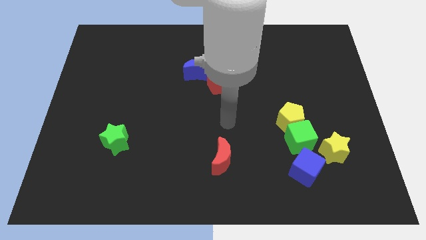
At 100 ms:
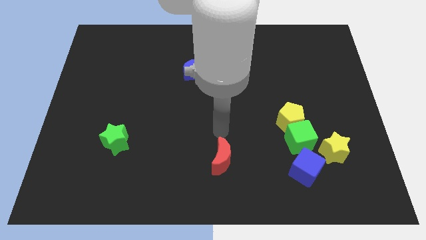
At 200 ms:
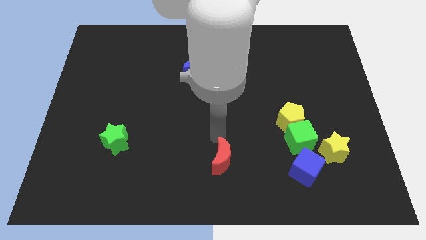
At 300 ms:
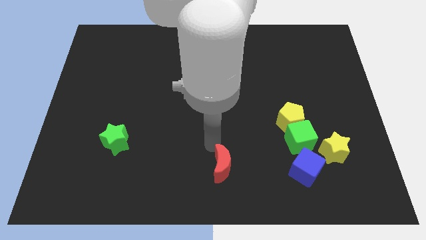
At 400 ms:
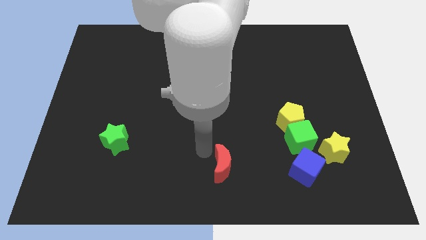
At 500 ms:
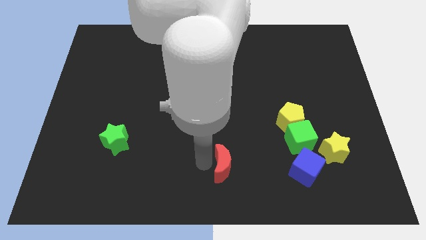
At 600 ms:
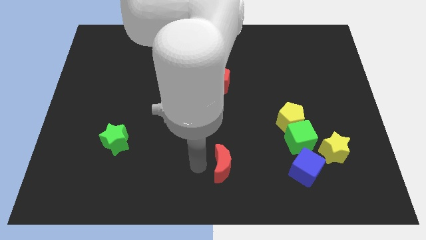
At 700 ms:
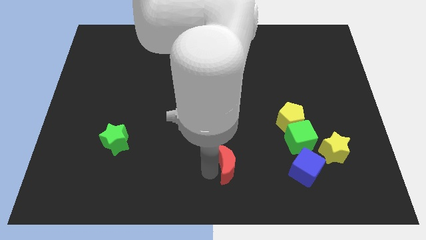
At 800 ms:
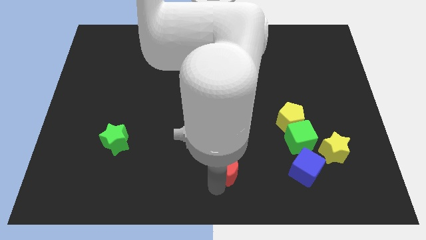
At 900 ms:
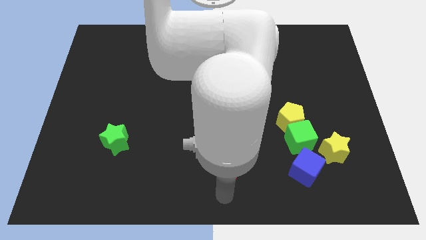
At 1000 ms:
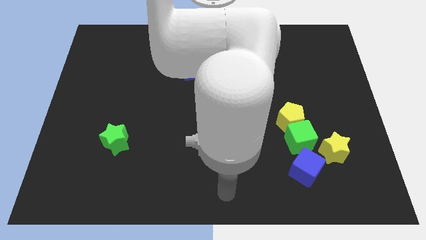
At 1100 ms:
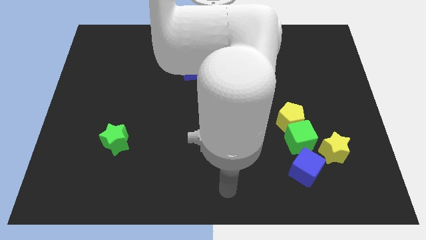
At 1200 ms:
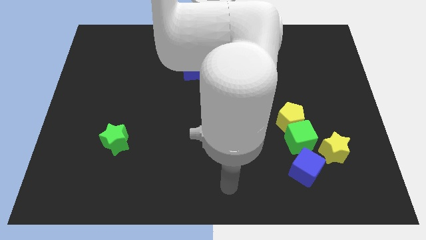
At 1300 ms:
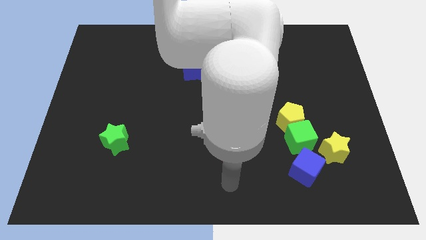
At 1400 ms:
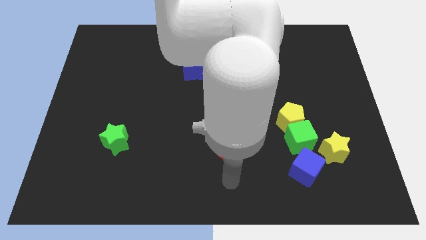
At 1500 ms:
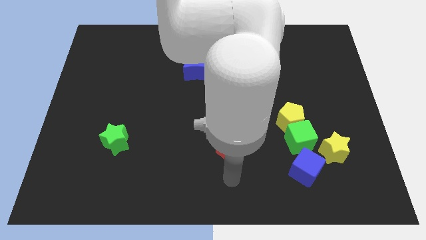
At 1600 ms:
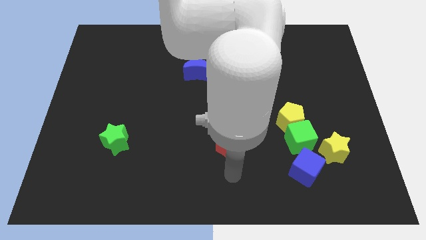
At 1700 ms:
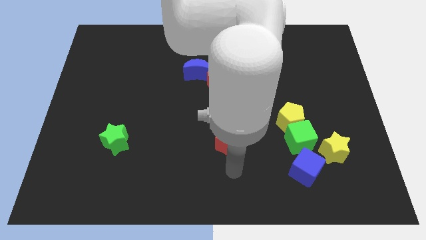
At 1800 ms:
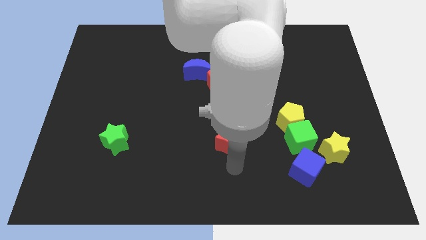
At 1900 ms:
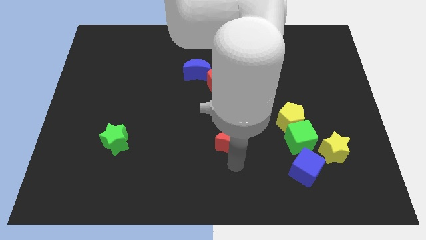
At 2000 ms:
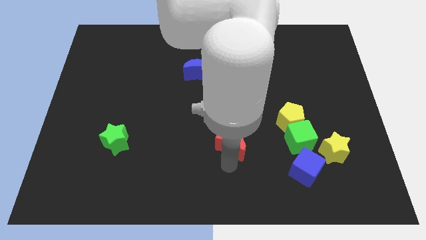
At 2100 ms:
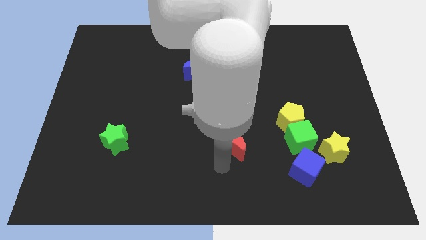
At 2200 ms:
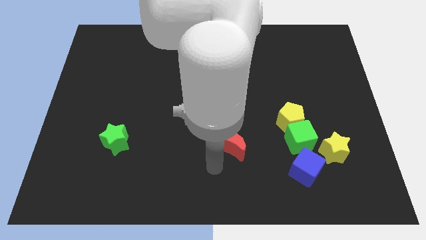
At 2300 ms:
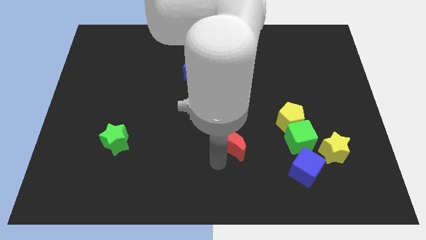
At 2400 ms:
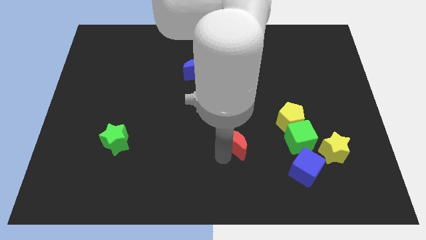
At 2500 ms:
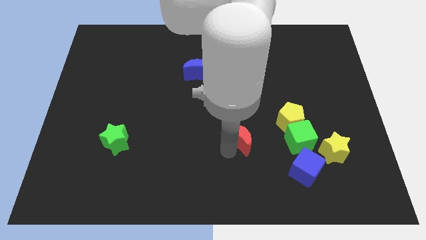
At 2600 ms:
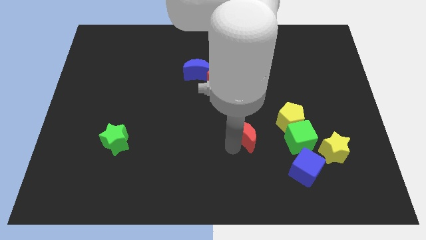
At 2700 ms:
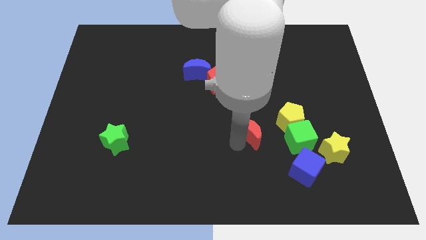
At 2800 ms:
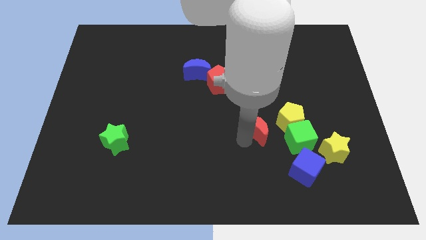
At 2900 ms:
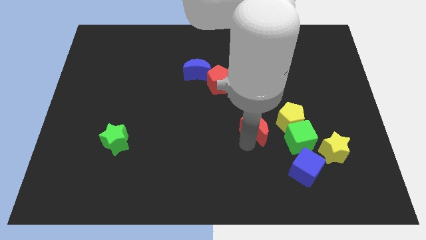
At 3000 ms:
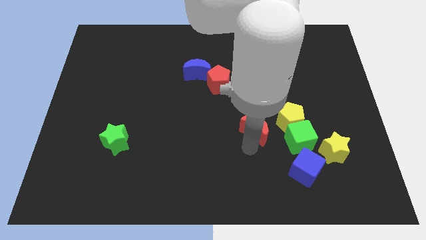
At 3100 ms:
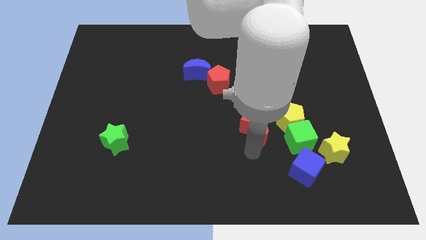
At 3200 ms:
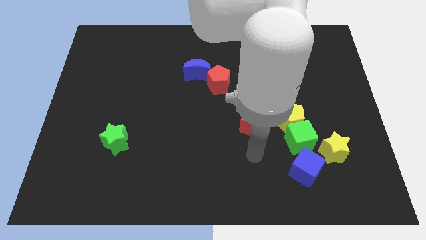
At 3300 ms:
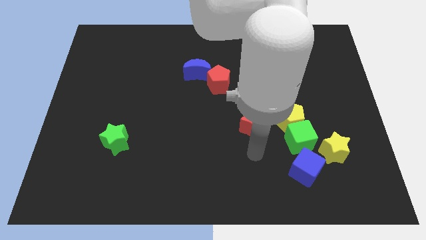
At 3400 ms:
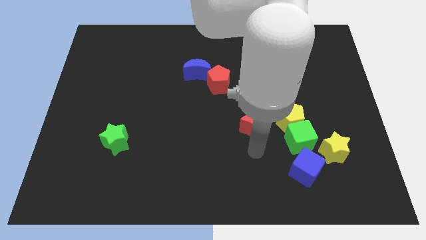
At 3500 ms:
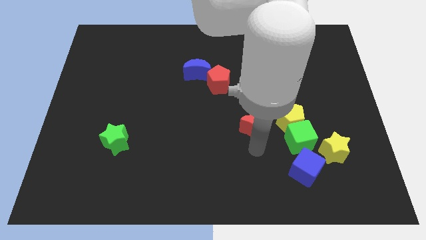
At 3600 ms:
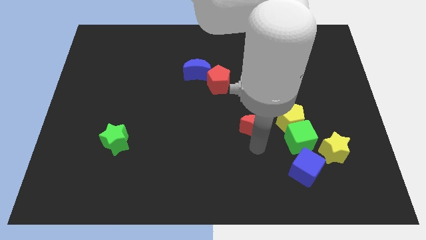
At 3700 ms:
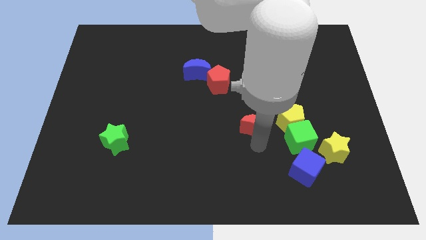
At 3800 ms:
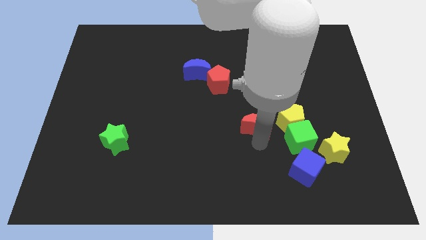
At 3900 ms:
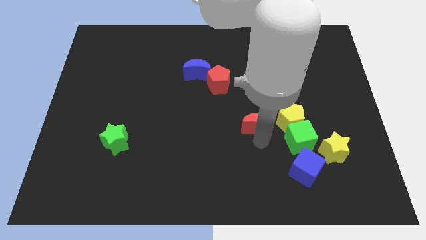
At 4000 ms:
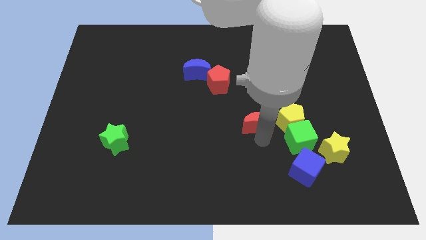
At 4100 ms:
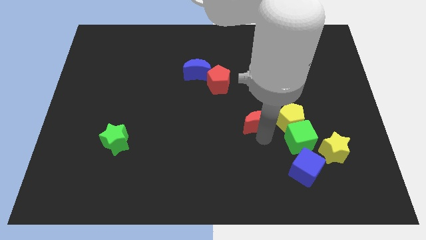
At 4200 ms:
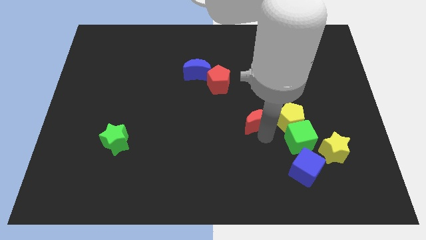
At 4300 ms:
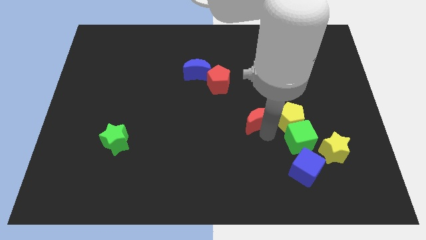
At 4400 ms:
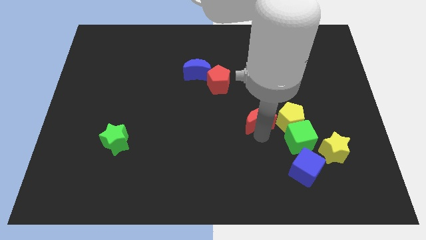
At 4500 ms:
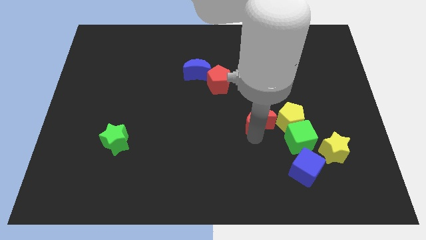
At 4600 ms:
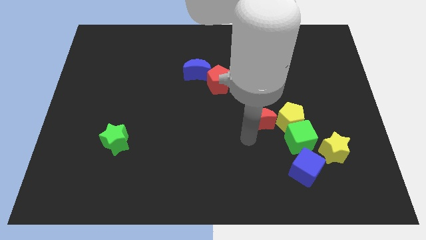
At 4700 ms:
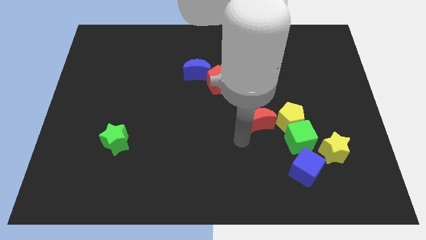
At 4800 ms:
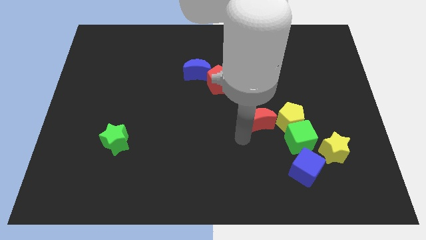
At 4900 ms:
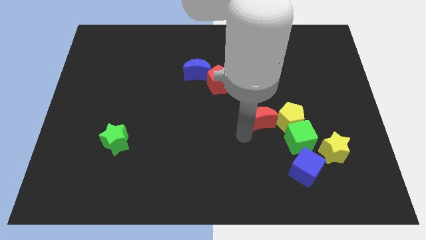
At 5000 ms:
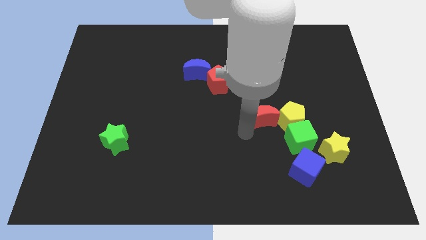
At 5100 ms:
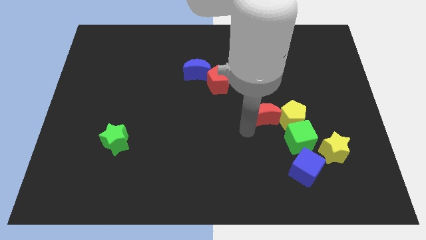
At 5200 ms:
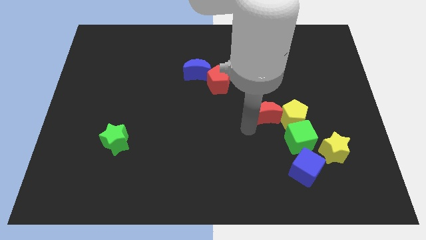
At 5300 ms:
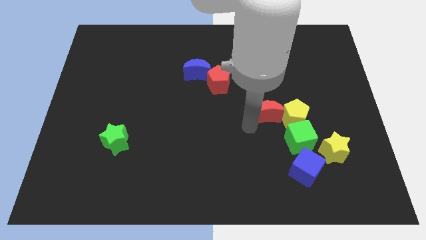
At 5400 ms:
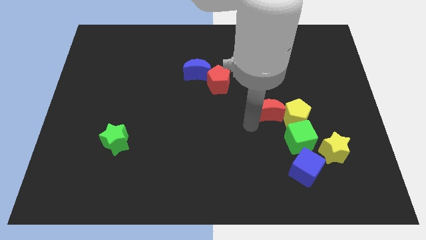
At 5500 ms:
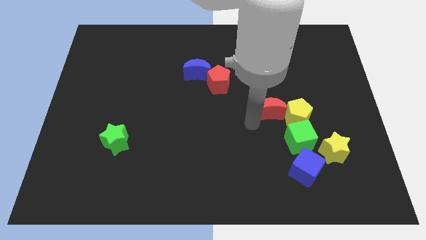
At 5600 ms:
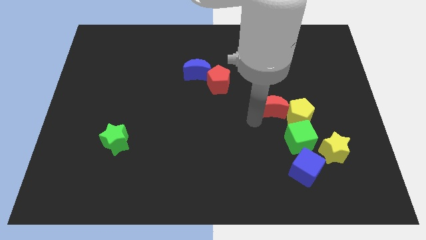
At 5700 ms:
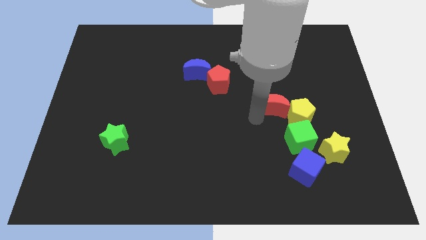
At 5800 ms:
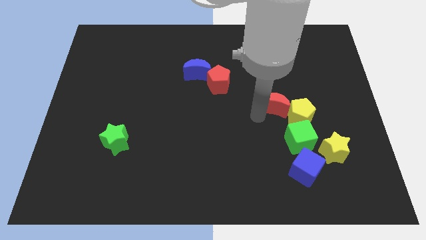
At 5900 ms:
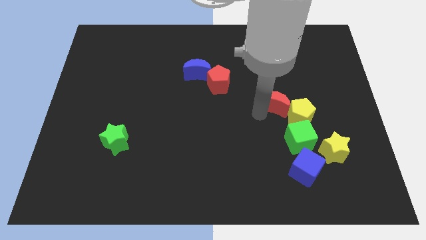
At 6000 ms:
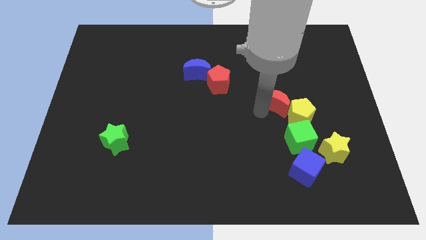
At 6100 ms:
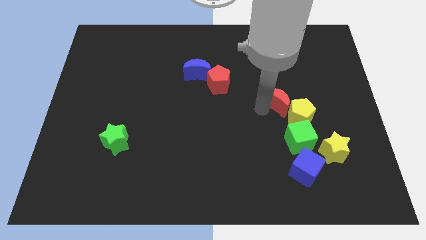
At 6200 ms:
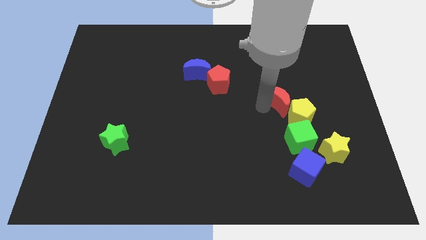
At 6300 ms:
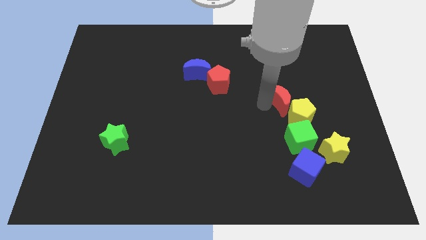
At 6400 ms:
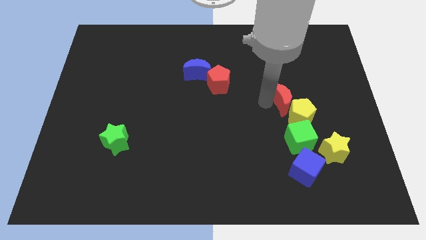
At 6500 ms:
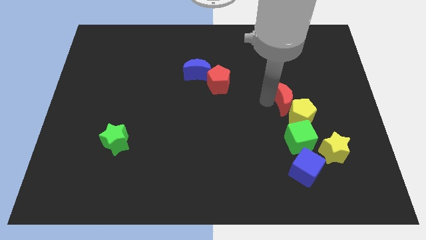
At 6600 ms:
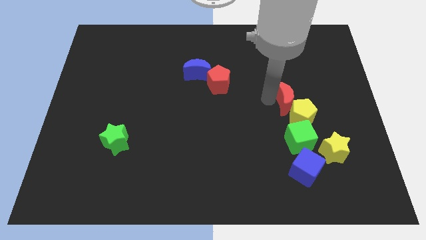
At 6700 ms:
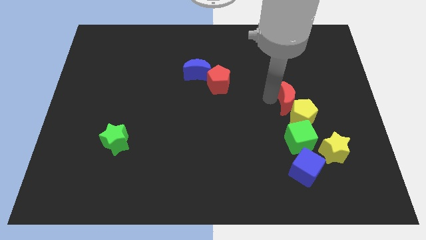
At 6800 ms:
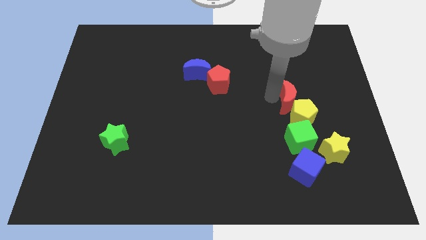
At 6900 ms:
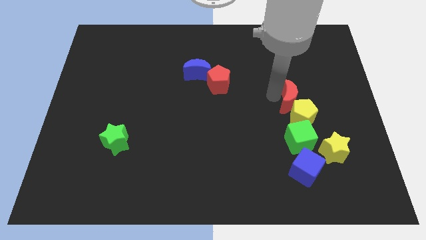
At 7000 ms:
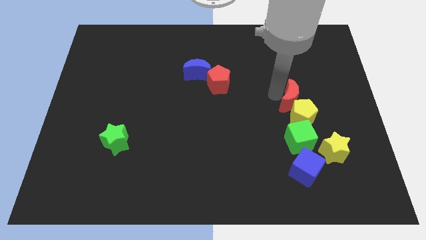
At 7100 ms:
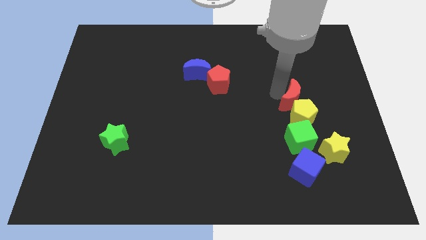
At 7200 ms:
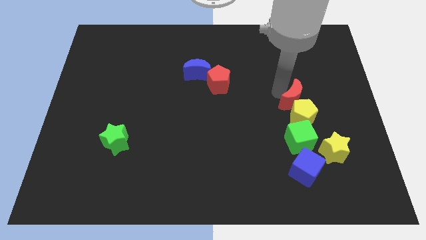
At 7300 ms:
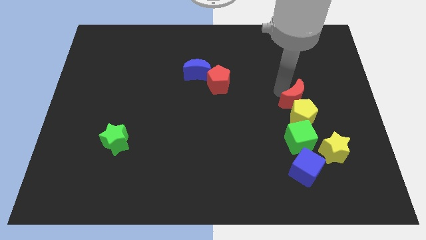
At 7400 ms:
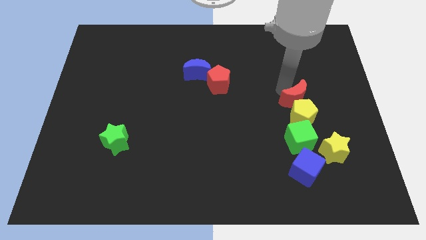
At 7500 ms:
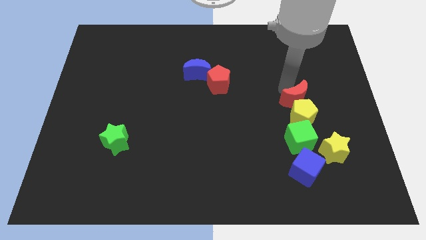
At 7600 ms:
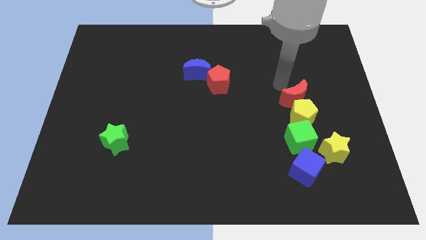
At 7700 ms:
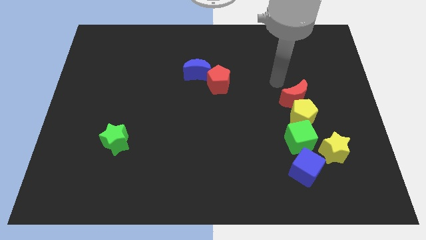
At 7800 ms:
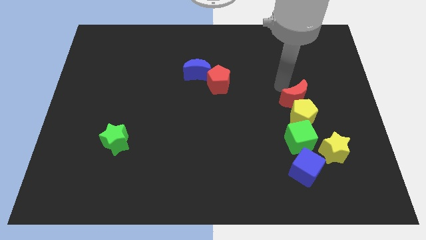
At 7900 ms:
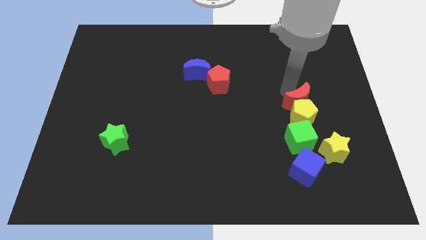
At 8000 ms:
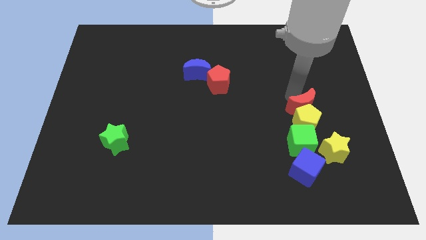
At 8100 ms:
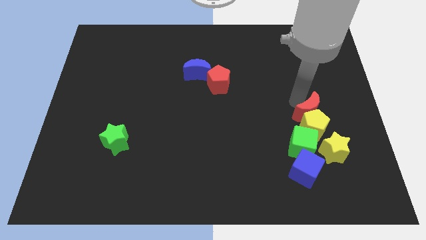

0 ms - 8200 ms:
move the red moon diagonally up and to the right of the green cube

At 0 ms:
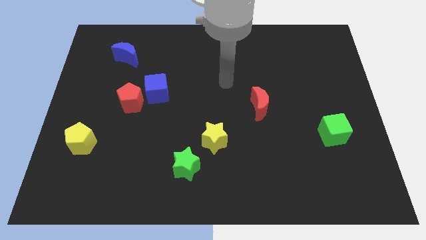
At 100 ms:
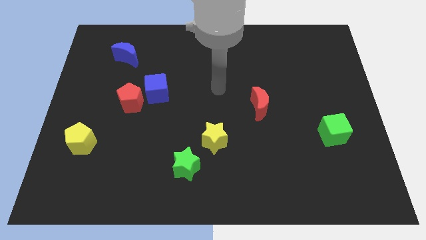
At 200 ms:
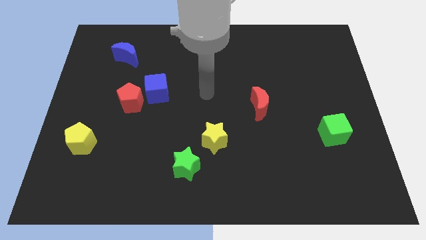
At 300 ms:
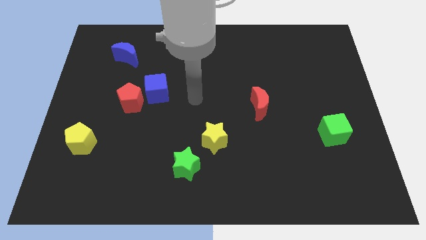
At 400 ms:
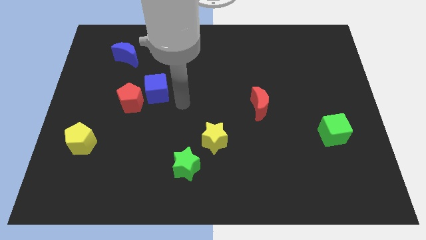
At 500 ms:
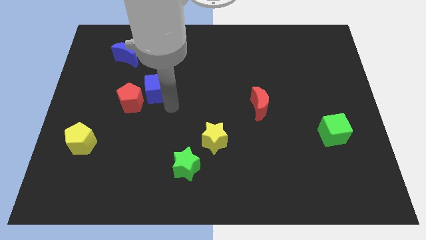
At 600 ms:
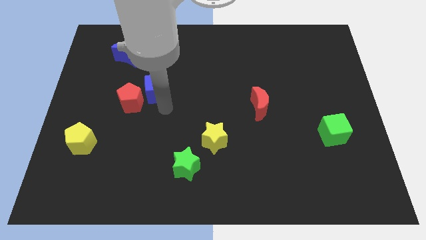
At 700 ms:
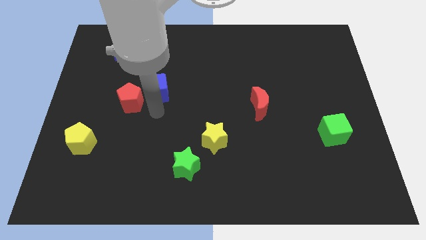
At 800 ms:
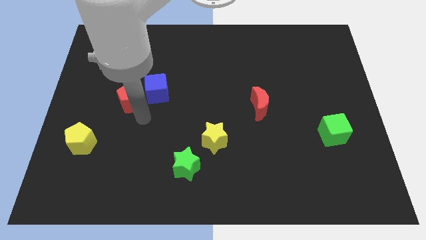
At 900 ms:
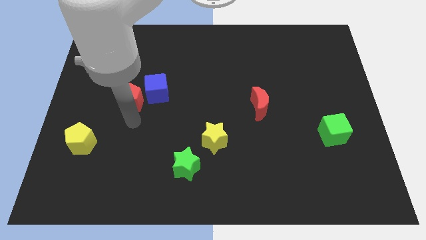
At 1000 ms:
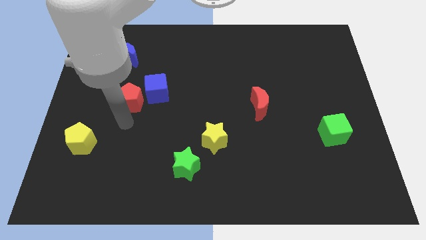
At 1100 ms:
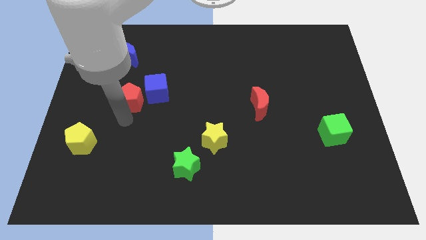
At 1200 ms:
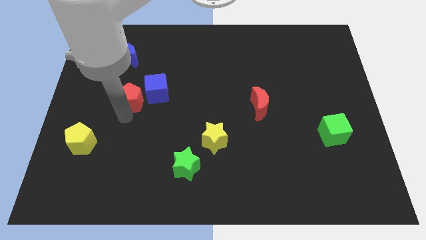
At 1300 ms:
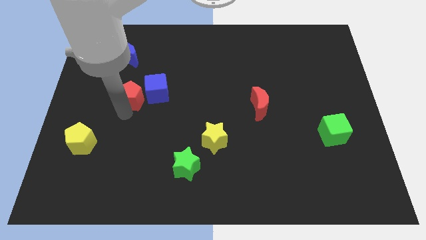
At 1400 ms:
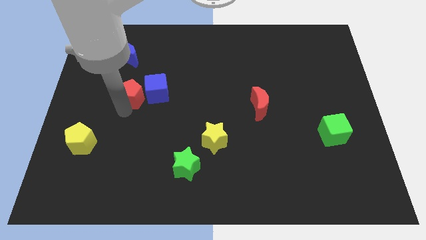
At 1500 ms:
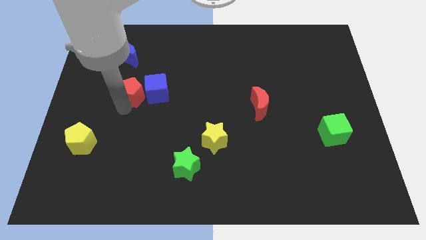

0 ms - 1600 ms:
push the red pentagon to the top left side of the blue cube
